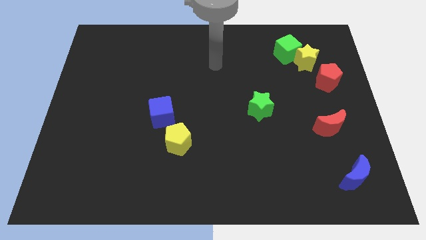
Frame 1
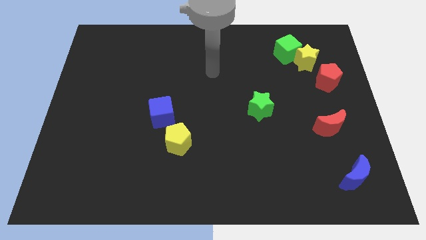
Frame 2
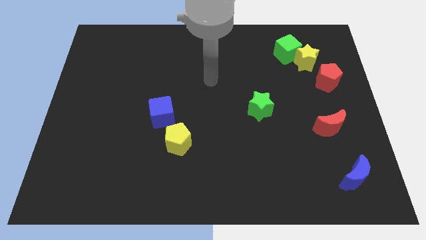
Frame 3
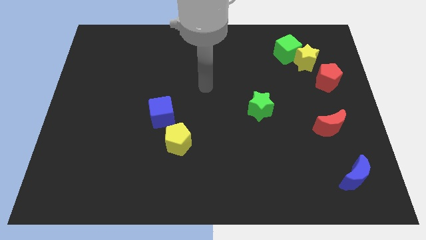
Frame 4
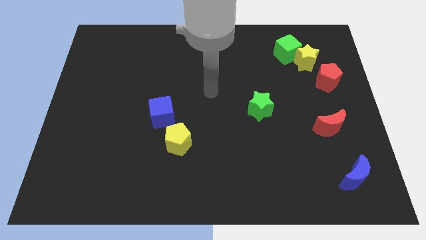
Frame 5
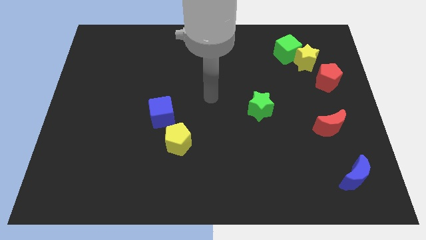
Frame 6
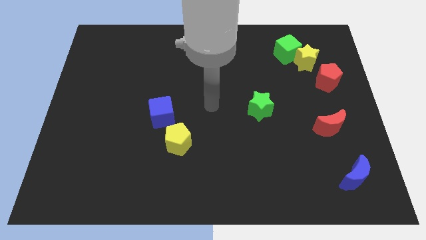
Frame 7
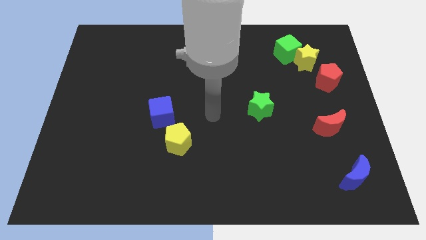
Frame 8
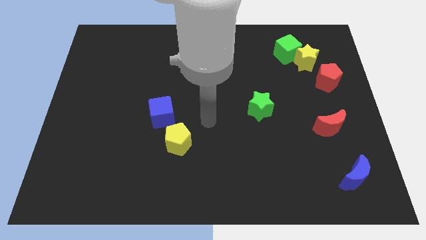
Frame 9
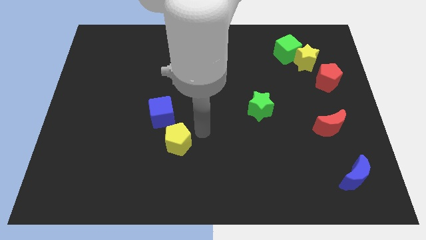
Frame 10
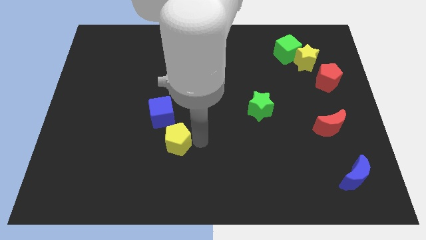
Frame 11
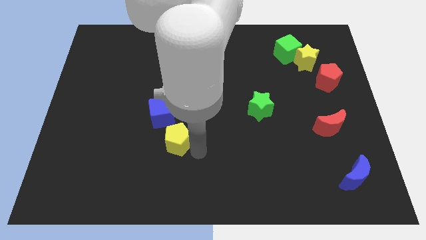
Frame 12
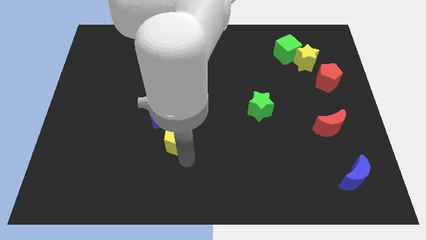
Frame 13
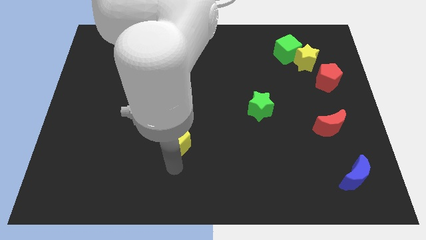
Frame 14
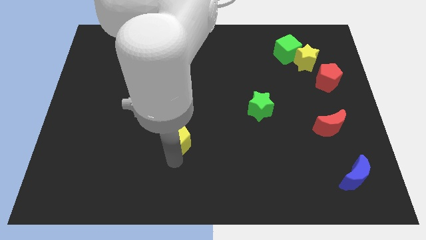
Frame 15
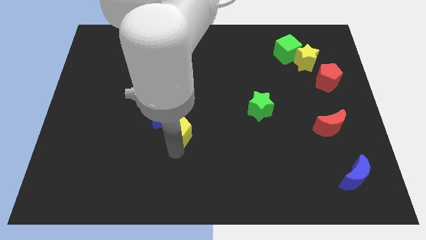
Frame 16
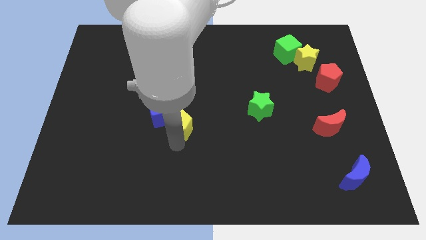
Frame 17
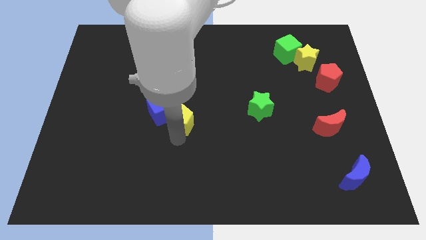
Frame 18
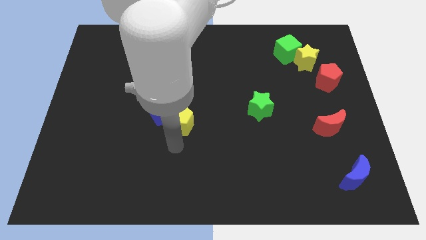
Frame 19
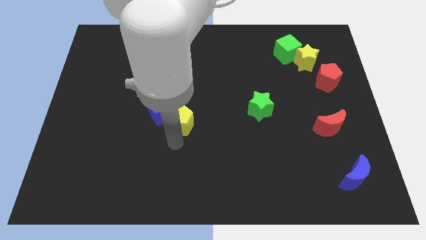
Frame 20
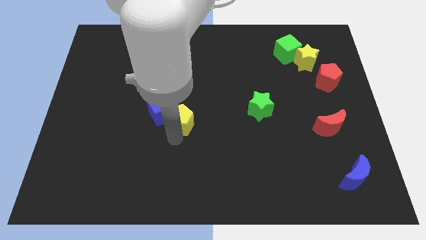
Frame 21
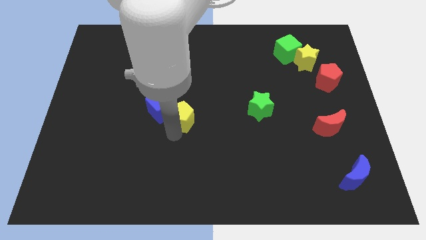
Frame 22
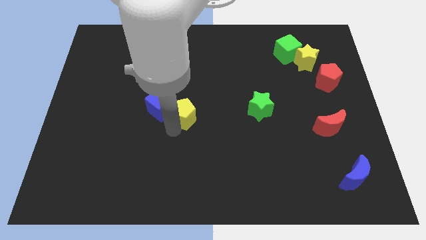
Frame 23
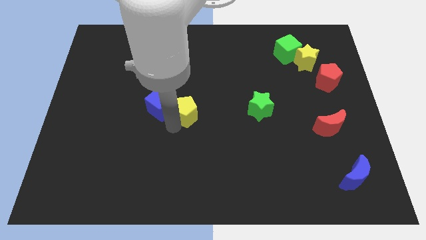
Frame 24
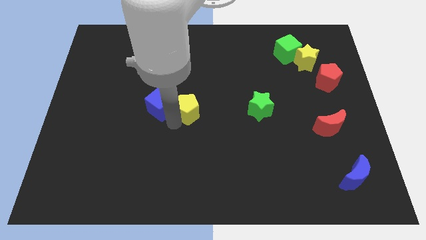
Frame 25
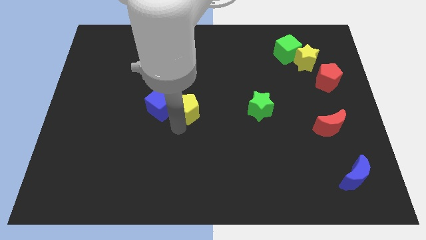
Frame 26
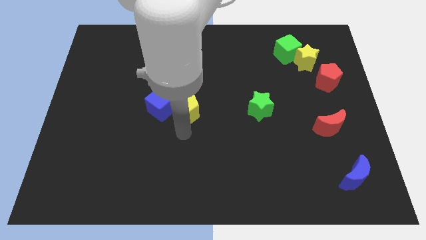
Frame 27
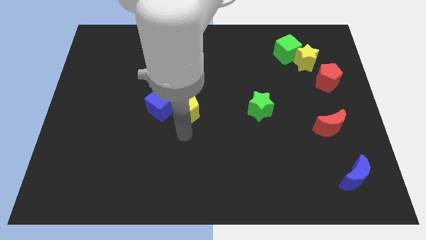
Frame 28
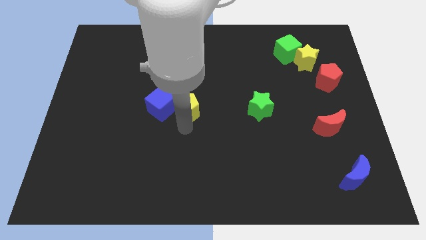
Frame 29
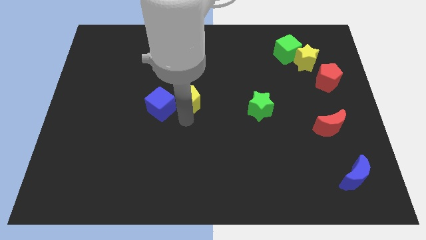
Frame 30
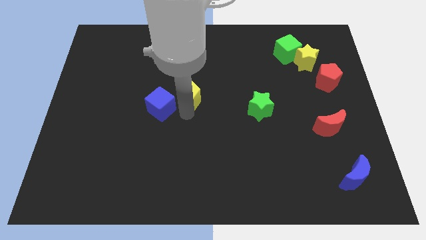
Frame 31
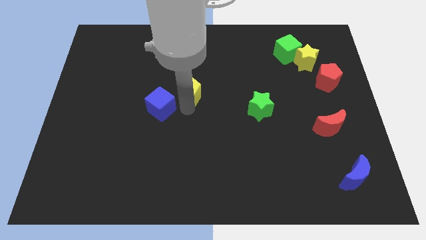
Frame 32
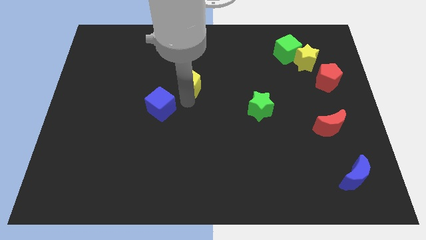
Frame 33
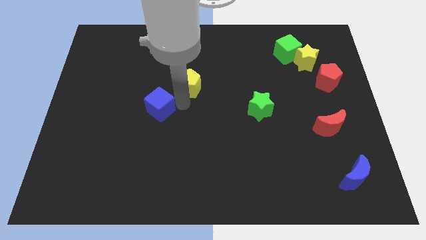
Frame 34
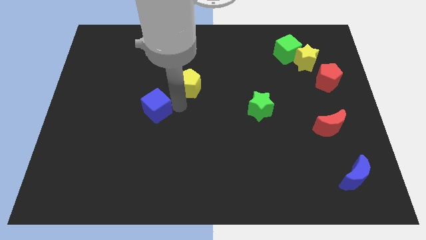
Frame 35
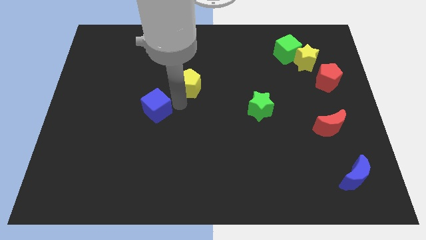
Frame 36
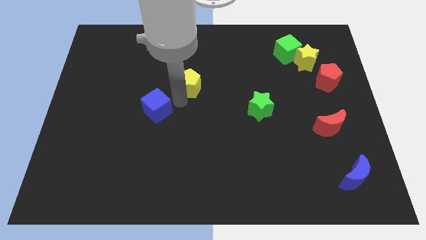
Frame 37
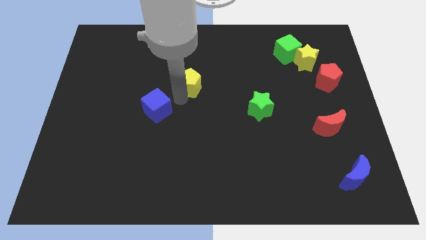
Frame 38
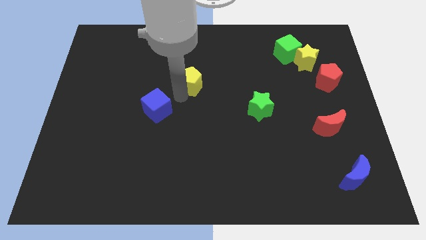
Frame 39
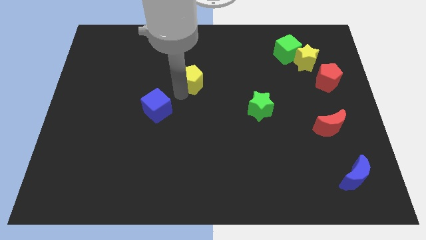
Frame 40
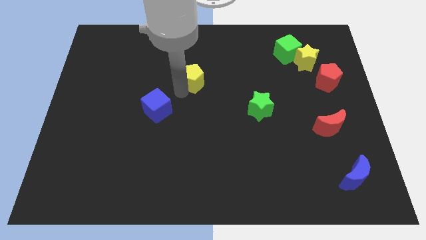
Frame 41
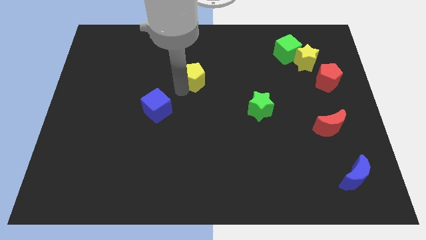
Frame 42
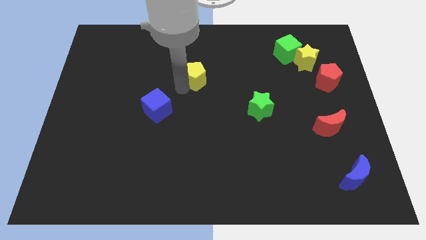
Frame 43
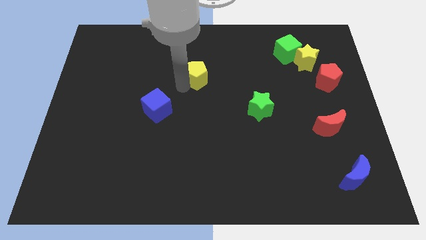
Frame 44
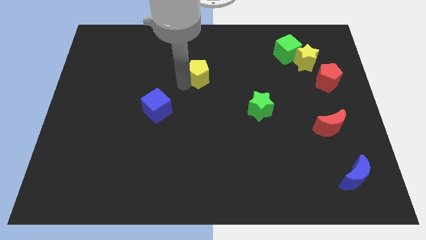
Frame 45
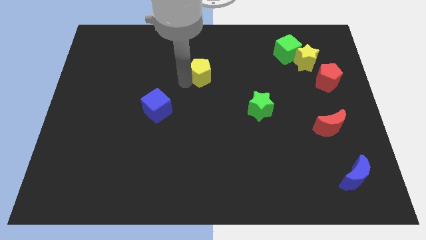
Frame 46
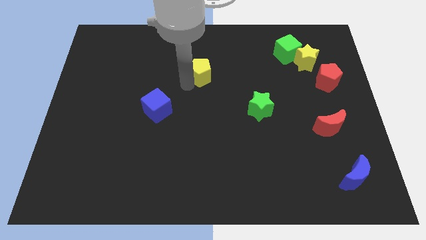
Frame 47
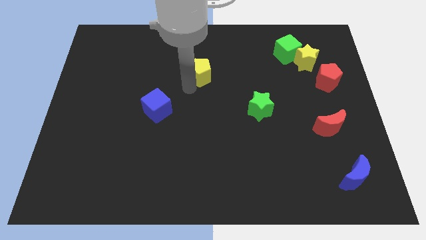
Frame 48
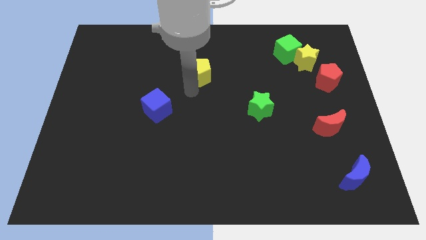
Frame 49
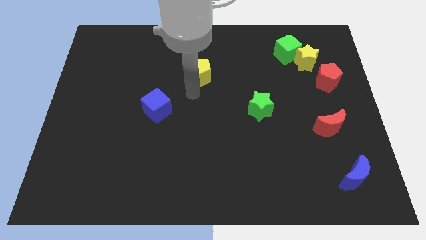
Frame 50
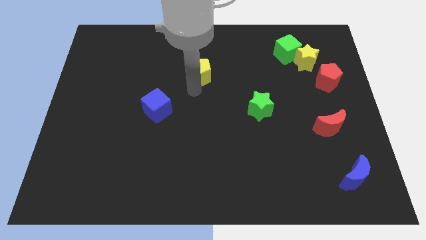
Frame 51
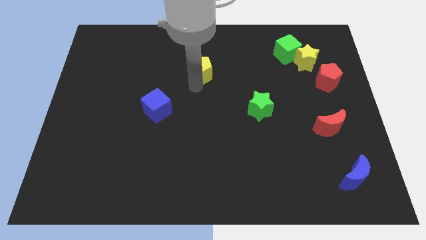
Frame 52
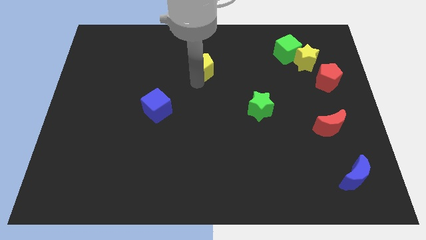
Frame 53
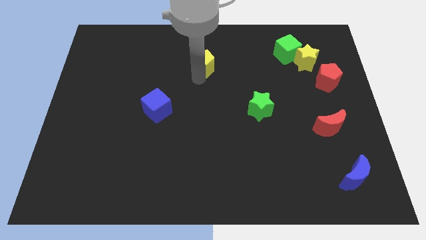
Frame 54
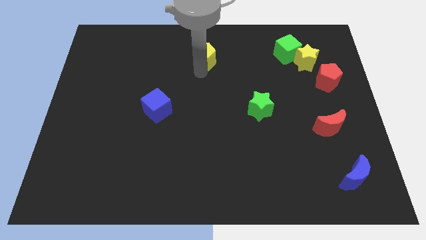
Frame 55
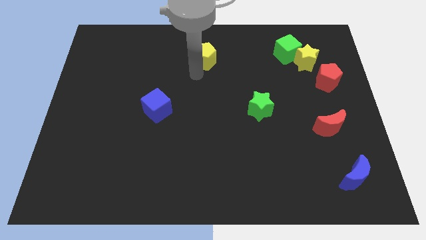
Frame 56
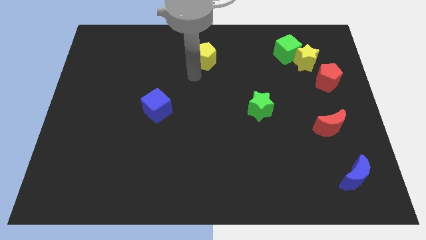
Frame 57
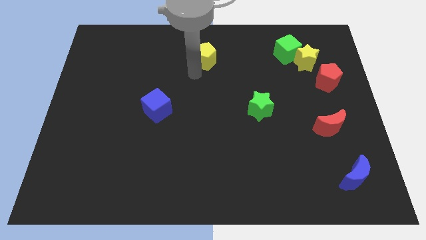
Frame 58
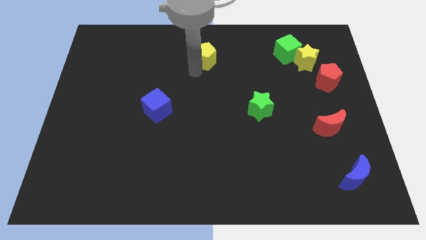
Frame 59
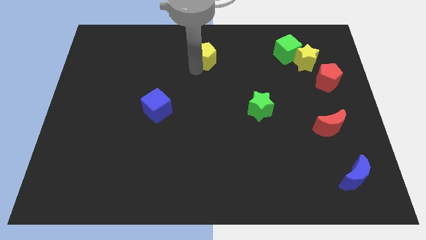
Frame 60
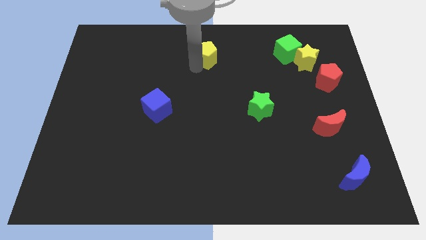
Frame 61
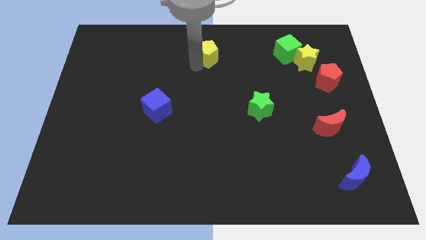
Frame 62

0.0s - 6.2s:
slide the yellow pentagon to the towards your base

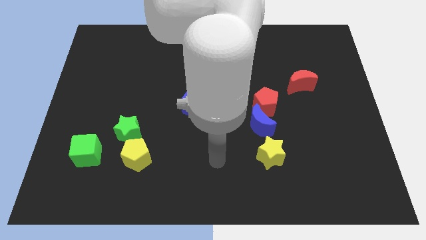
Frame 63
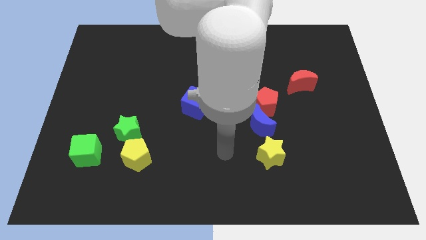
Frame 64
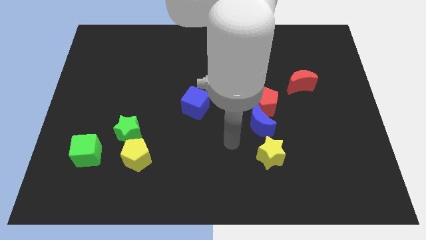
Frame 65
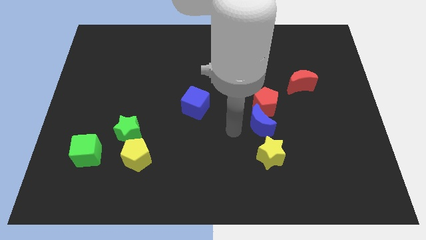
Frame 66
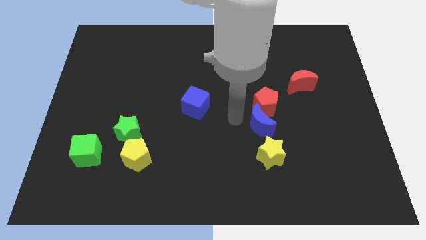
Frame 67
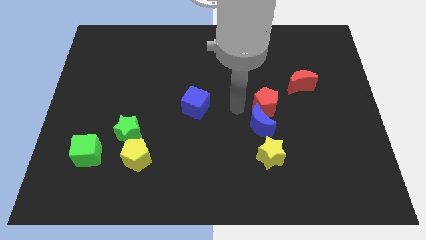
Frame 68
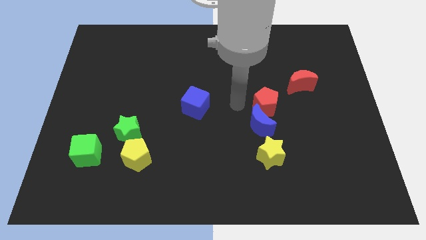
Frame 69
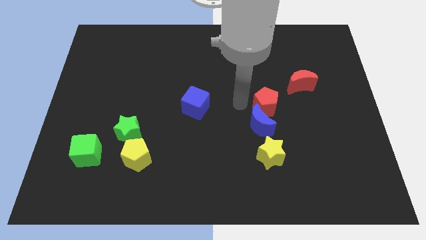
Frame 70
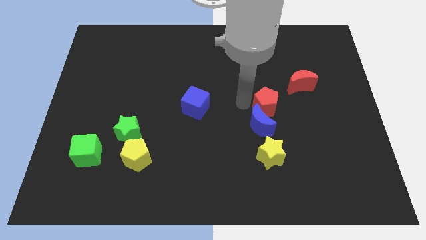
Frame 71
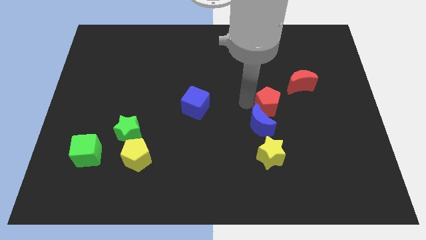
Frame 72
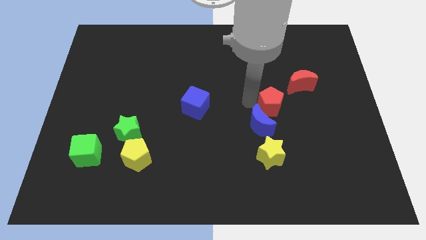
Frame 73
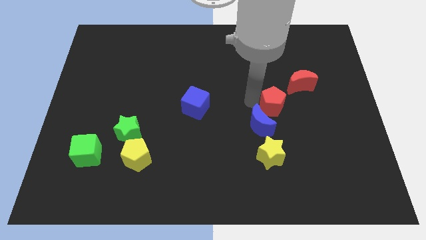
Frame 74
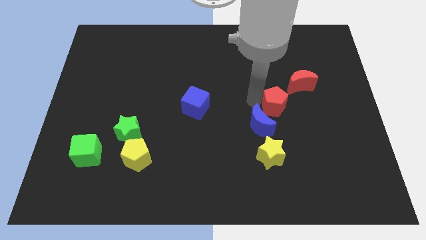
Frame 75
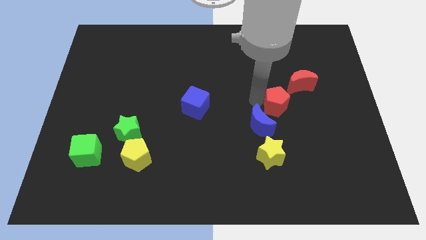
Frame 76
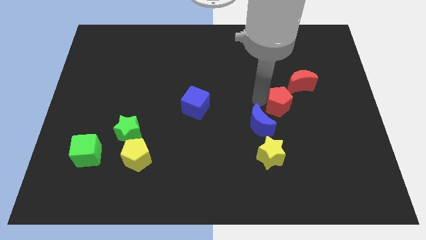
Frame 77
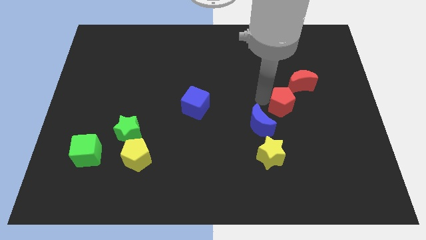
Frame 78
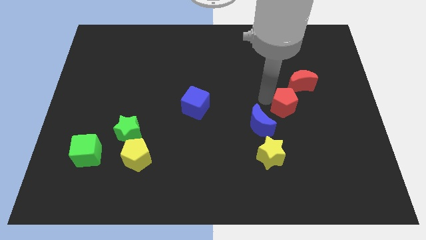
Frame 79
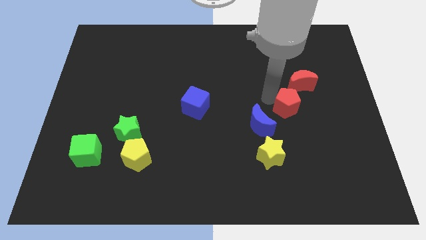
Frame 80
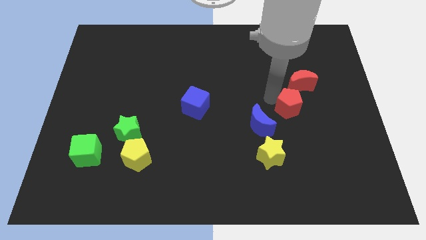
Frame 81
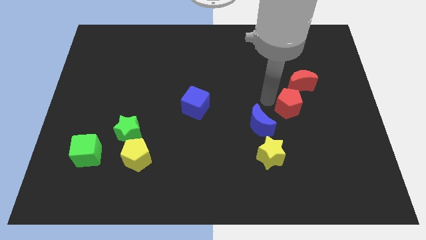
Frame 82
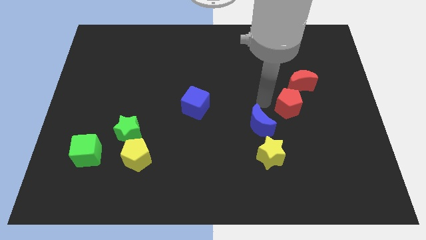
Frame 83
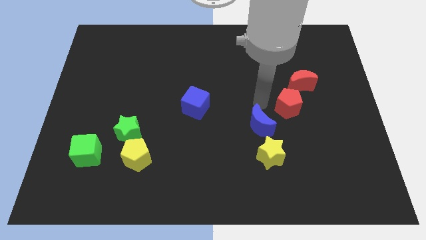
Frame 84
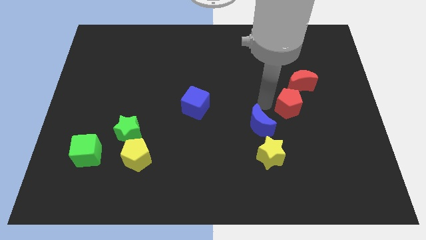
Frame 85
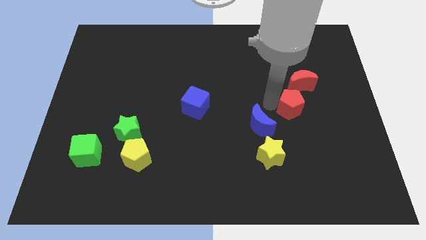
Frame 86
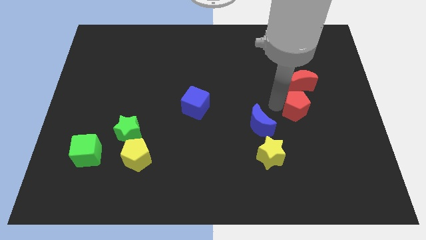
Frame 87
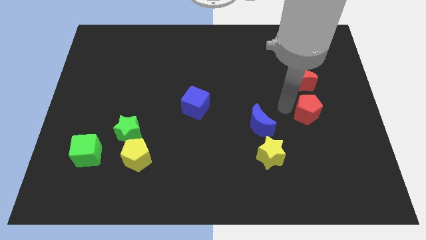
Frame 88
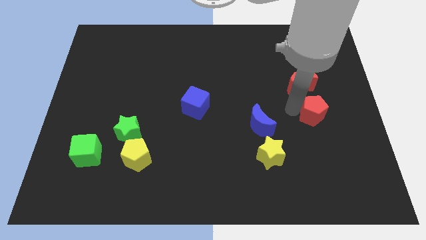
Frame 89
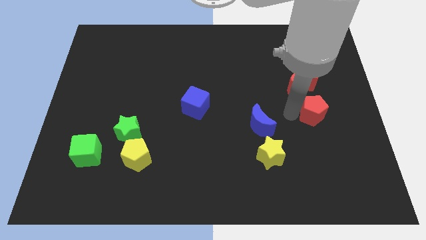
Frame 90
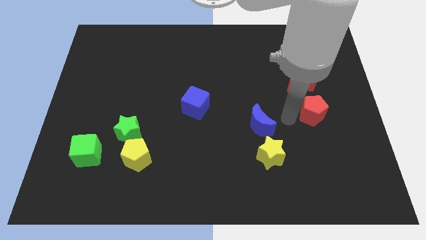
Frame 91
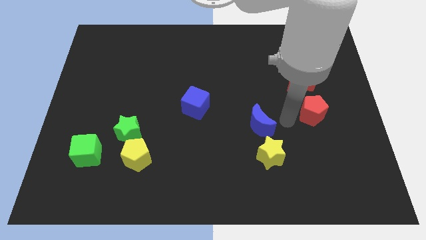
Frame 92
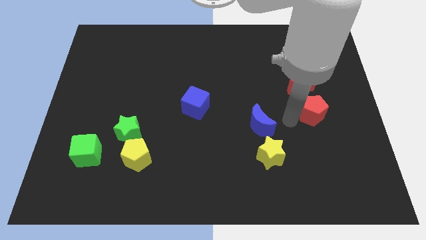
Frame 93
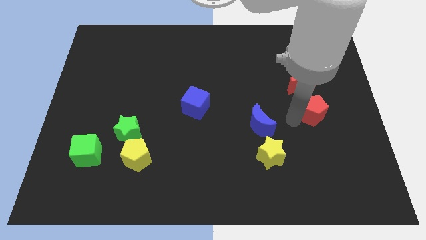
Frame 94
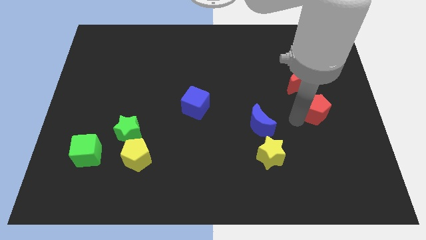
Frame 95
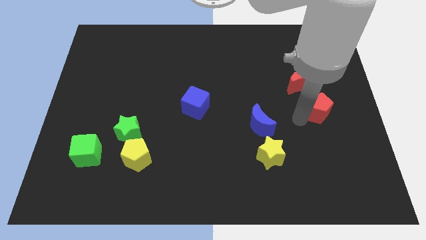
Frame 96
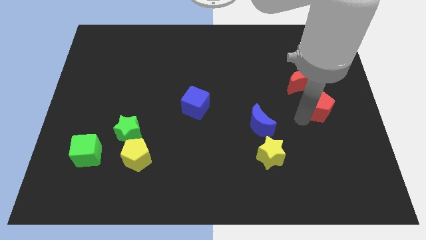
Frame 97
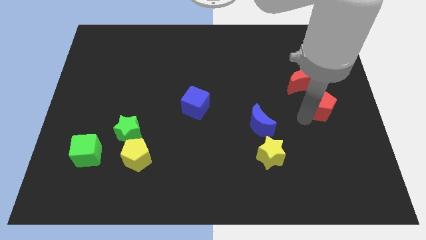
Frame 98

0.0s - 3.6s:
push the red pentagon to the center right
